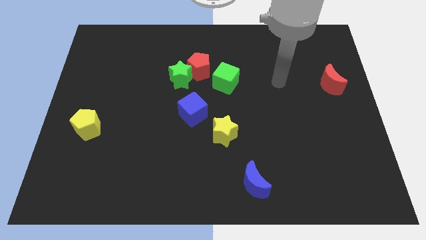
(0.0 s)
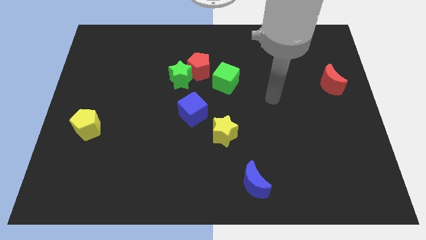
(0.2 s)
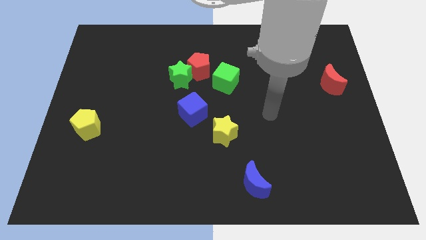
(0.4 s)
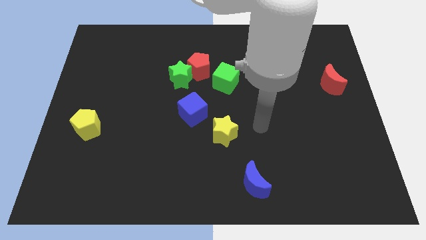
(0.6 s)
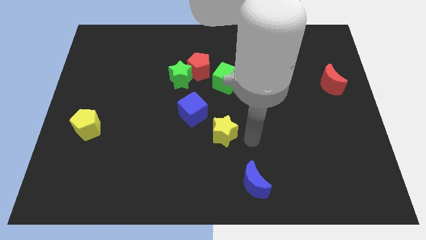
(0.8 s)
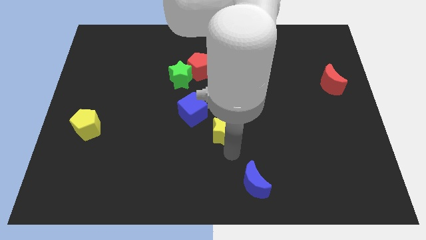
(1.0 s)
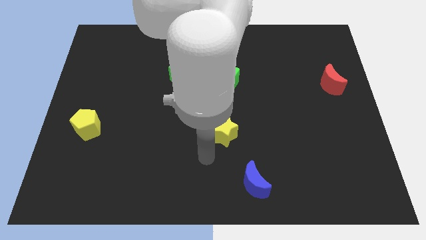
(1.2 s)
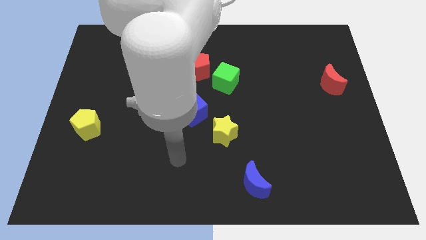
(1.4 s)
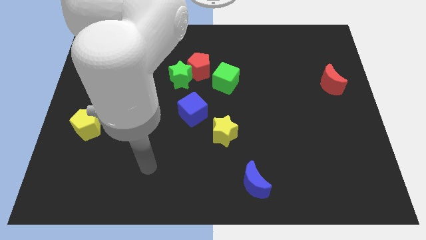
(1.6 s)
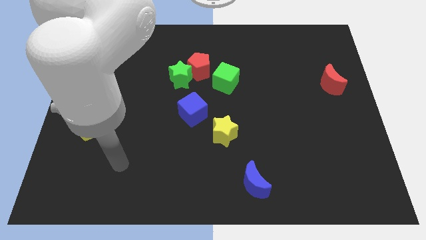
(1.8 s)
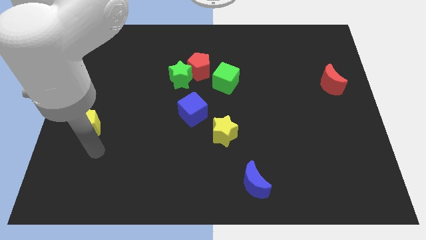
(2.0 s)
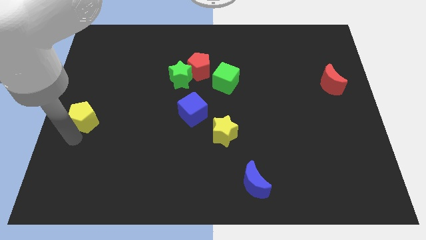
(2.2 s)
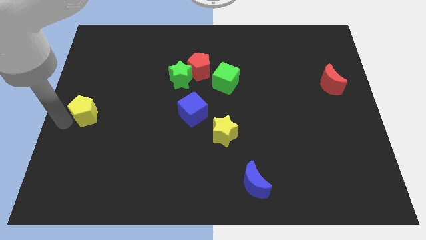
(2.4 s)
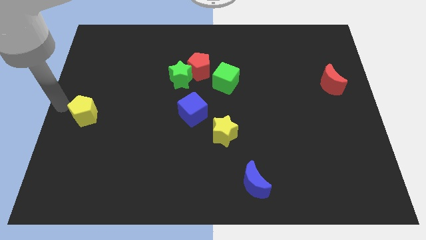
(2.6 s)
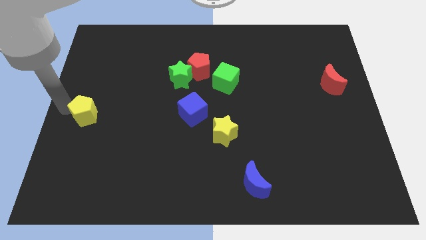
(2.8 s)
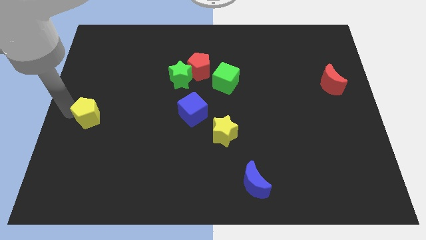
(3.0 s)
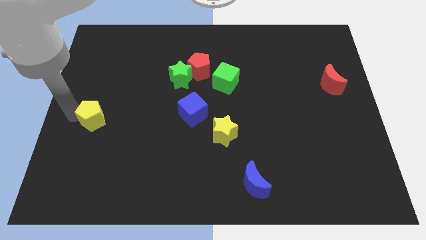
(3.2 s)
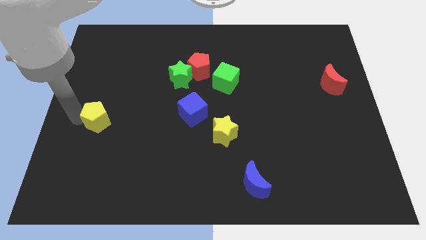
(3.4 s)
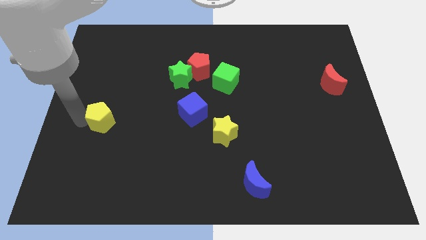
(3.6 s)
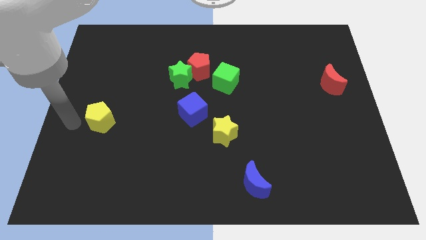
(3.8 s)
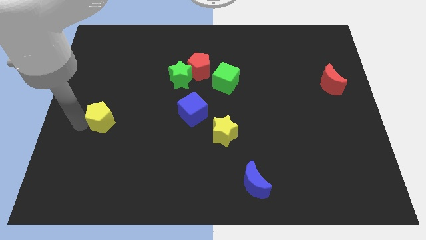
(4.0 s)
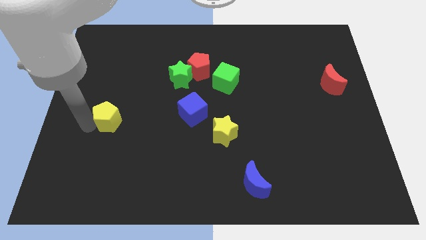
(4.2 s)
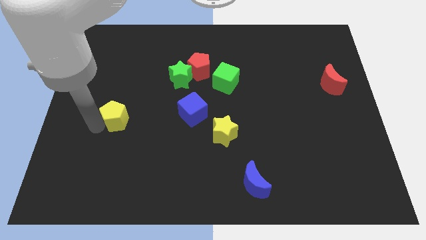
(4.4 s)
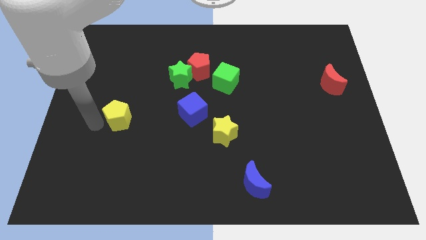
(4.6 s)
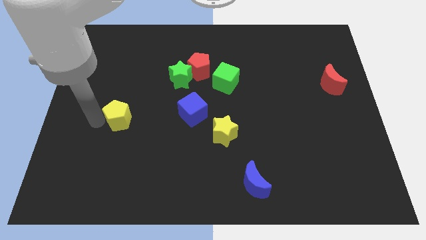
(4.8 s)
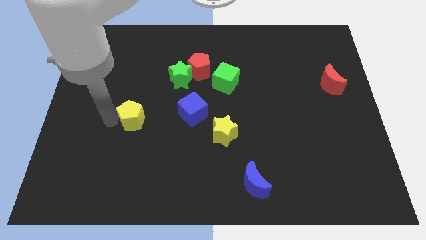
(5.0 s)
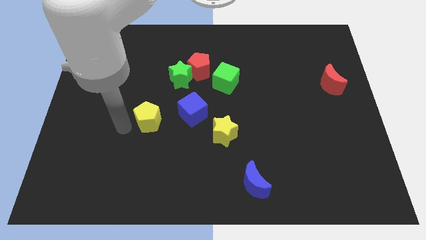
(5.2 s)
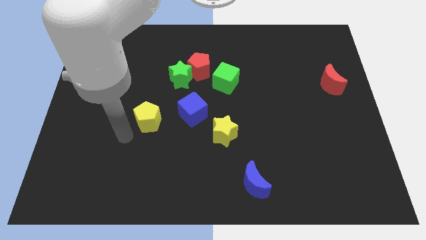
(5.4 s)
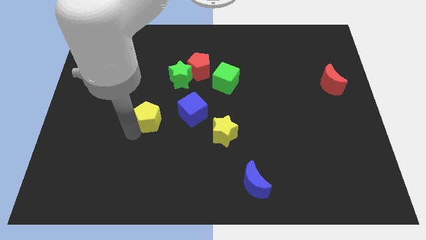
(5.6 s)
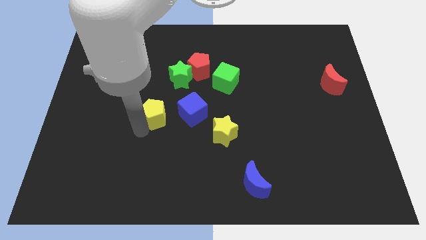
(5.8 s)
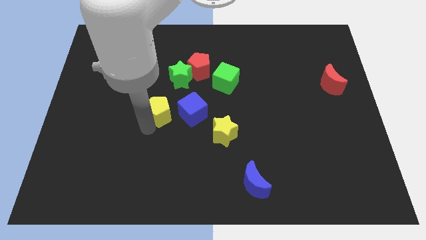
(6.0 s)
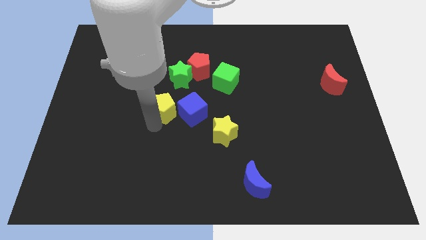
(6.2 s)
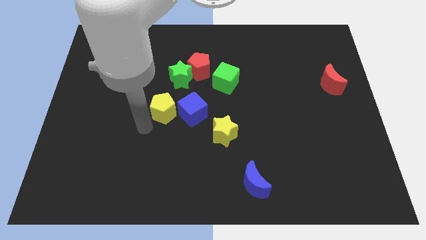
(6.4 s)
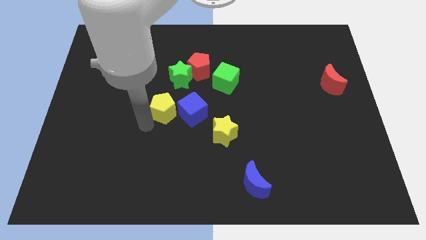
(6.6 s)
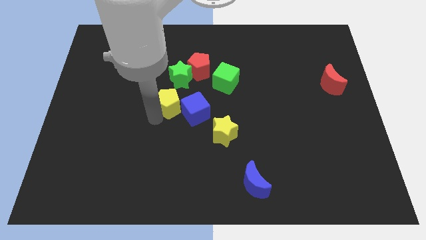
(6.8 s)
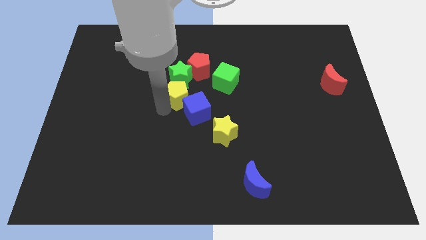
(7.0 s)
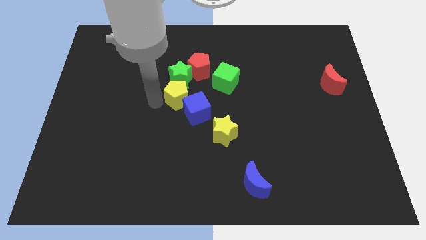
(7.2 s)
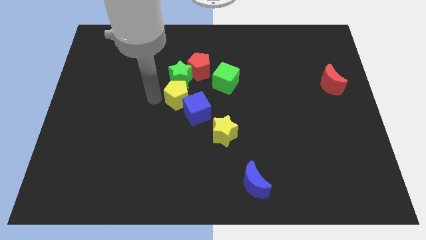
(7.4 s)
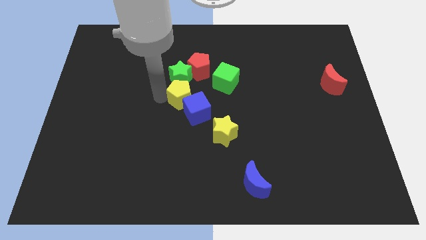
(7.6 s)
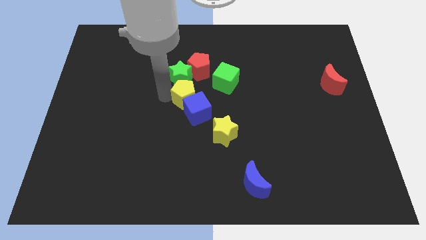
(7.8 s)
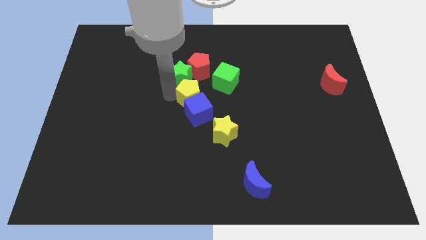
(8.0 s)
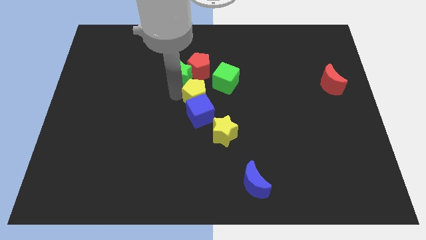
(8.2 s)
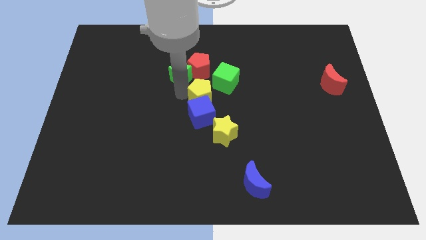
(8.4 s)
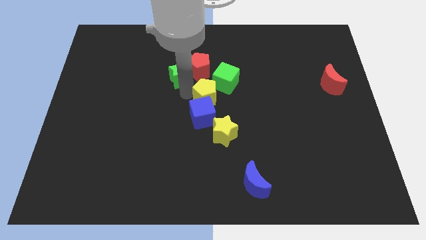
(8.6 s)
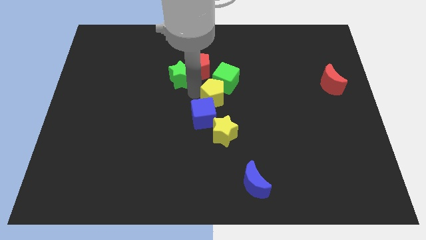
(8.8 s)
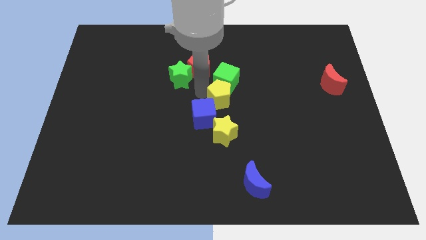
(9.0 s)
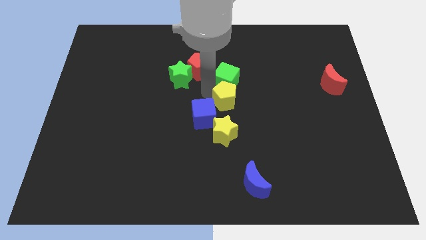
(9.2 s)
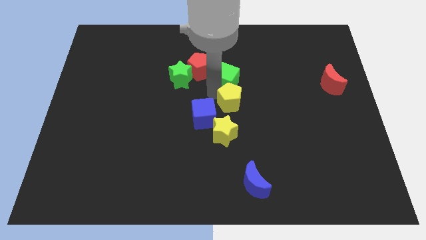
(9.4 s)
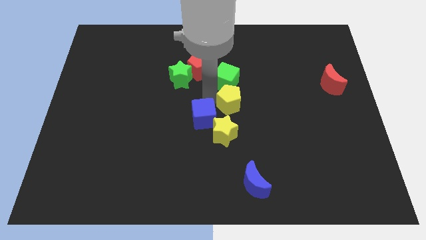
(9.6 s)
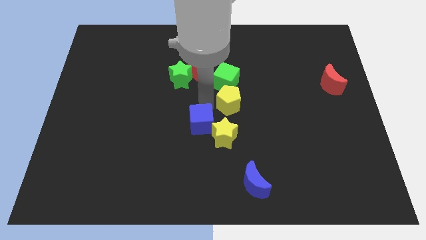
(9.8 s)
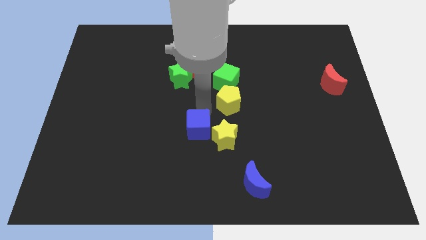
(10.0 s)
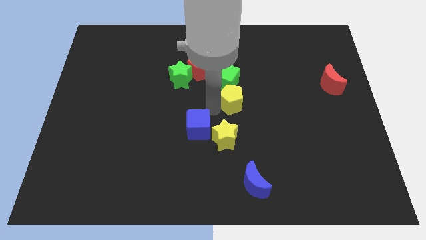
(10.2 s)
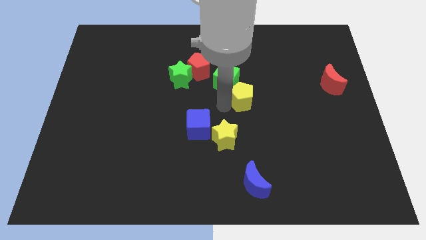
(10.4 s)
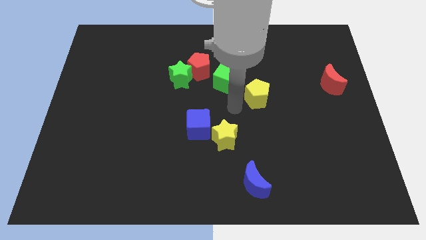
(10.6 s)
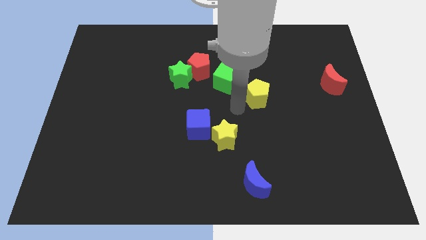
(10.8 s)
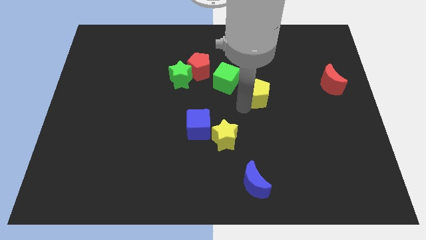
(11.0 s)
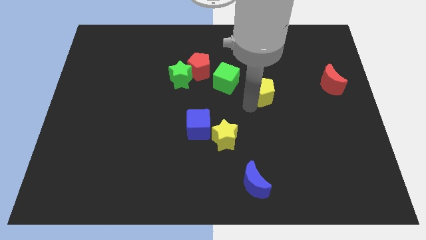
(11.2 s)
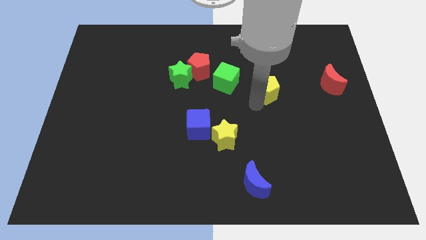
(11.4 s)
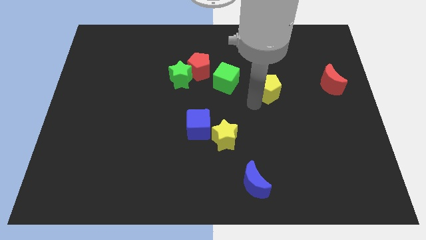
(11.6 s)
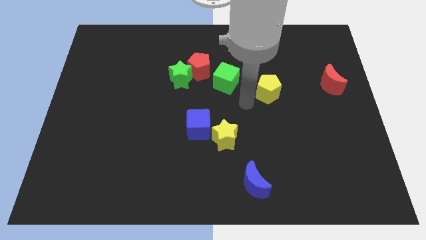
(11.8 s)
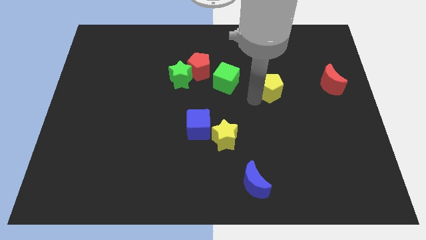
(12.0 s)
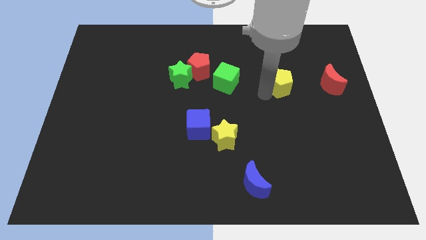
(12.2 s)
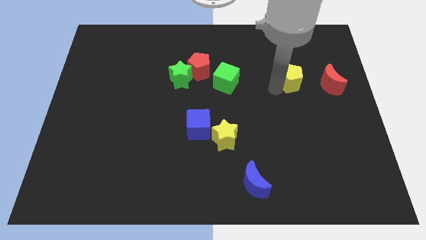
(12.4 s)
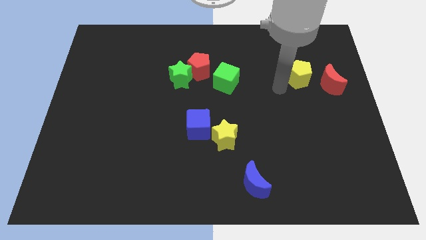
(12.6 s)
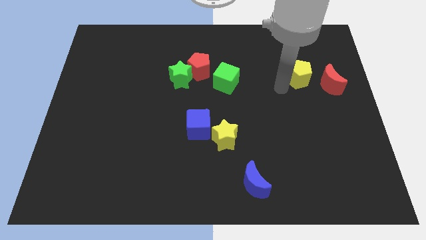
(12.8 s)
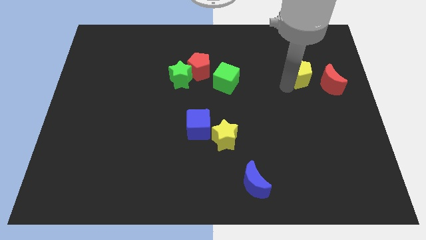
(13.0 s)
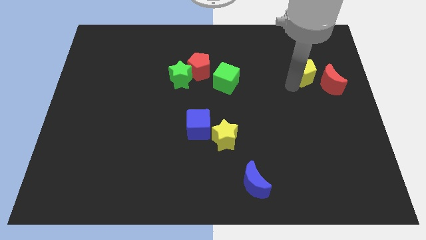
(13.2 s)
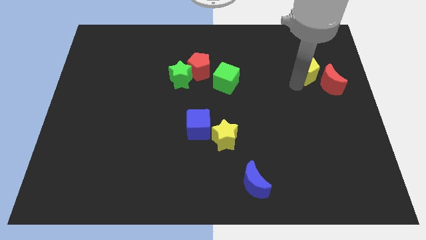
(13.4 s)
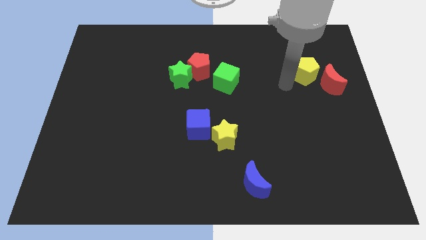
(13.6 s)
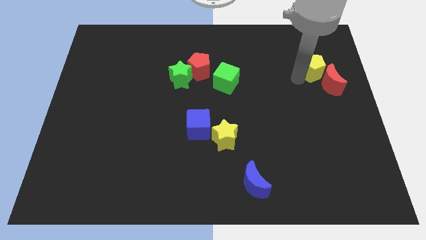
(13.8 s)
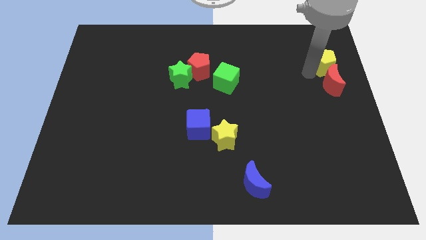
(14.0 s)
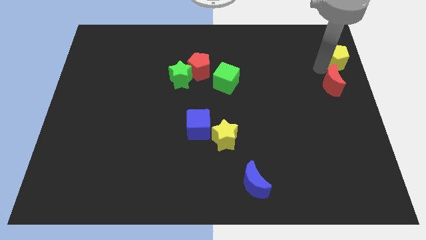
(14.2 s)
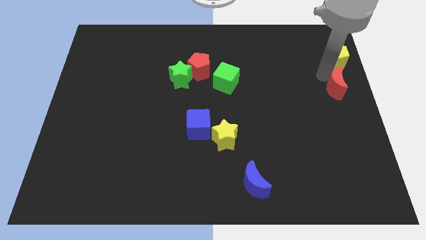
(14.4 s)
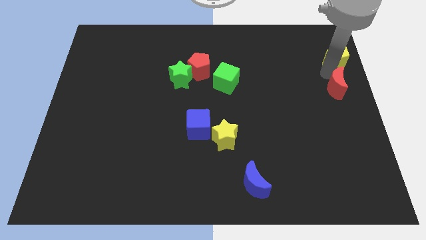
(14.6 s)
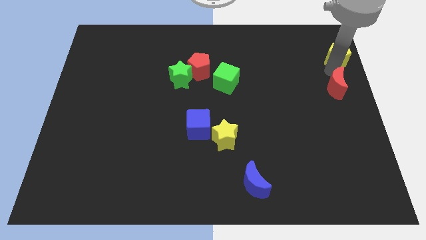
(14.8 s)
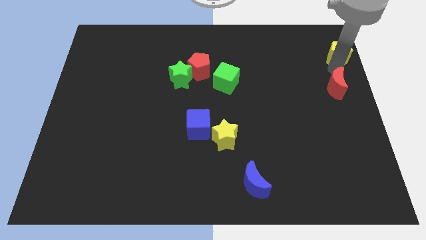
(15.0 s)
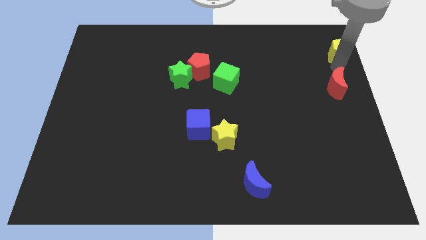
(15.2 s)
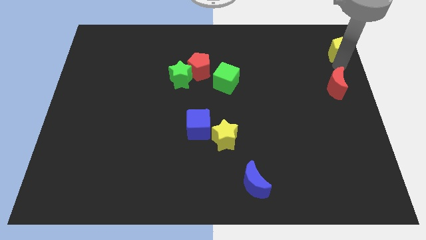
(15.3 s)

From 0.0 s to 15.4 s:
move the yellow pentagon to the top right
